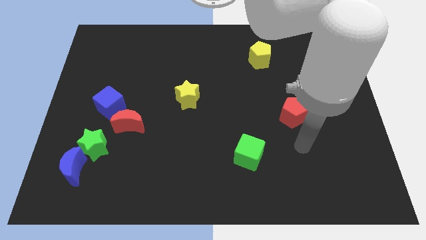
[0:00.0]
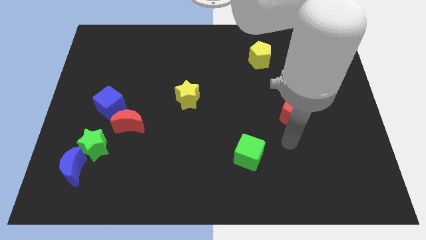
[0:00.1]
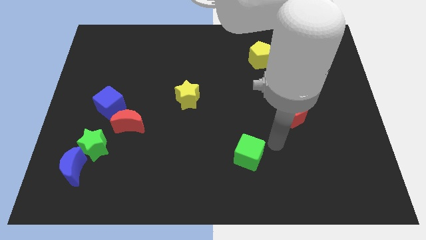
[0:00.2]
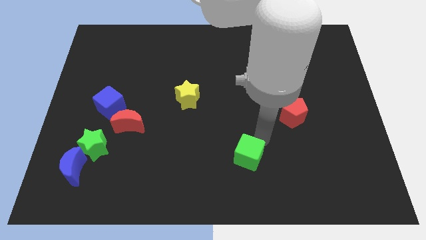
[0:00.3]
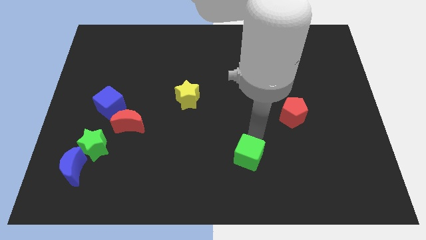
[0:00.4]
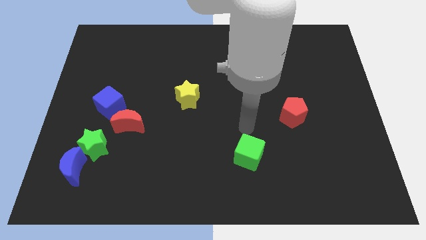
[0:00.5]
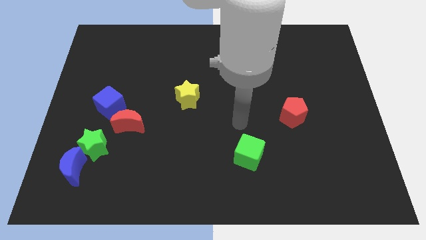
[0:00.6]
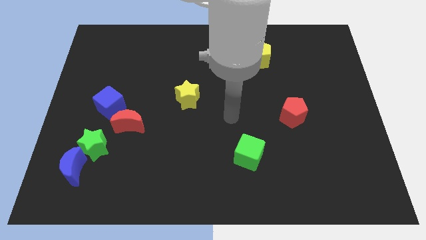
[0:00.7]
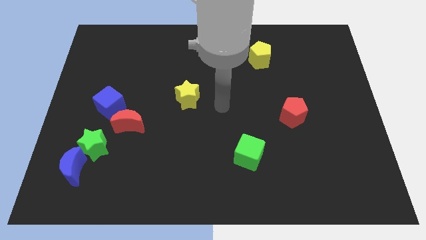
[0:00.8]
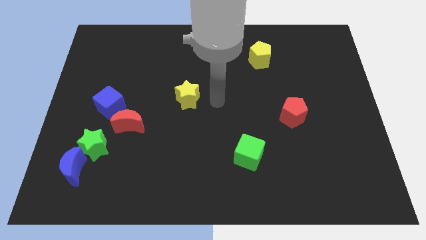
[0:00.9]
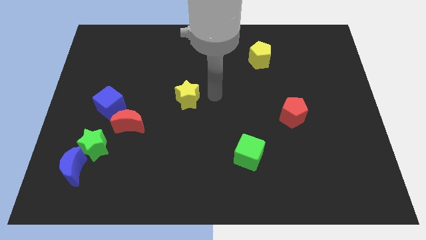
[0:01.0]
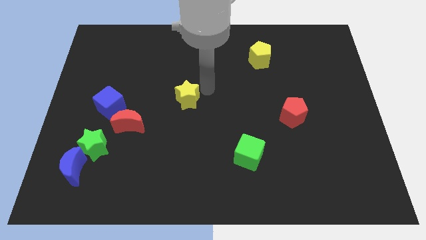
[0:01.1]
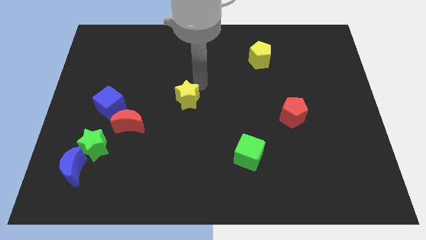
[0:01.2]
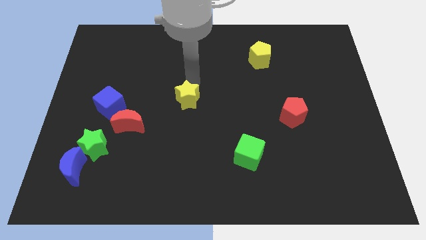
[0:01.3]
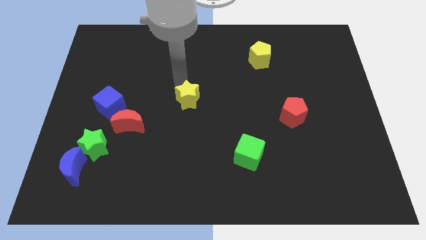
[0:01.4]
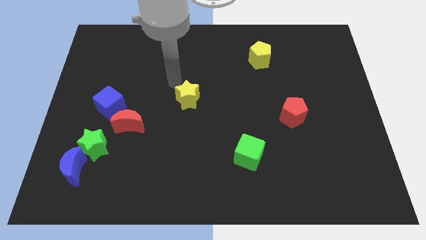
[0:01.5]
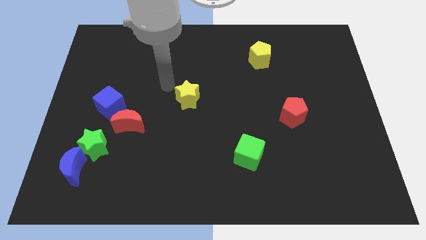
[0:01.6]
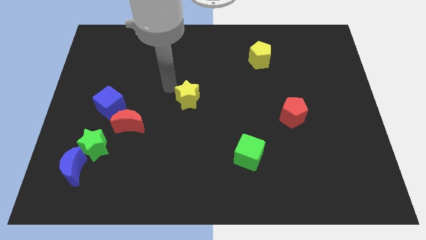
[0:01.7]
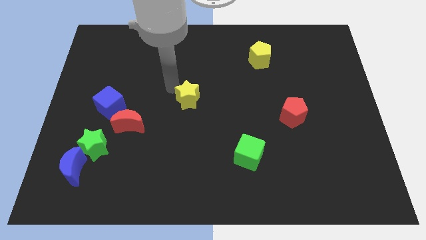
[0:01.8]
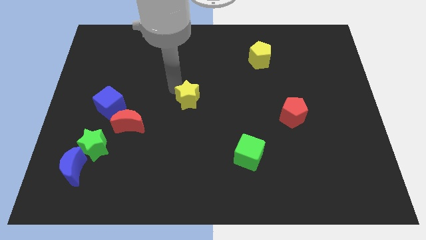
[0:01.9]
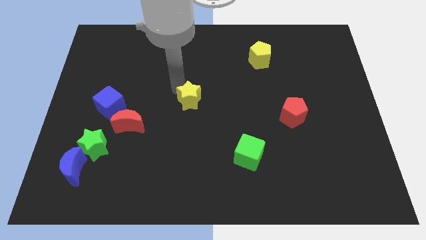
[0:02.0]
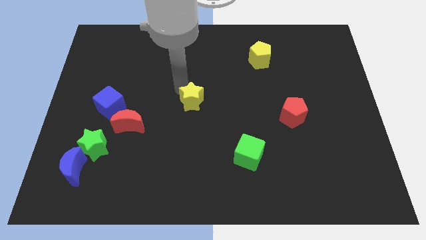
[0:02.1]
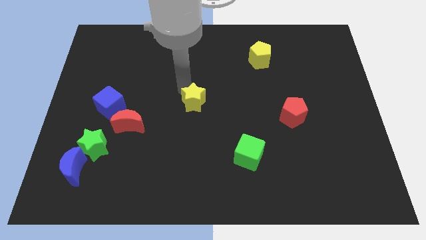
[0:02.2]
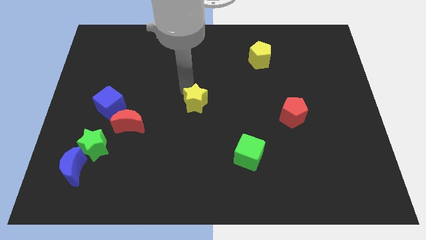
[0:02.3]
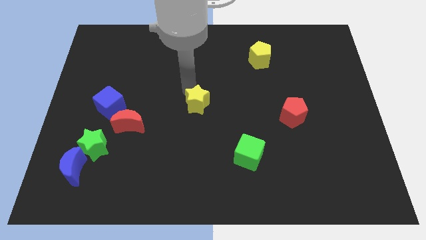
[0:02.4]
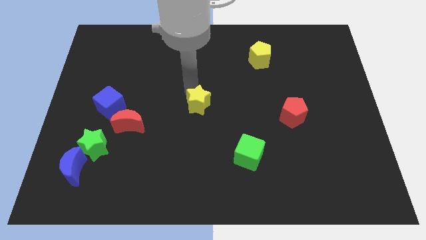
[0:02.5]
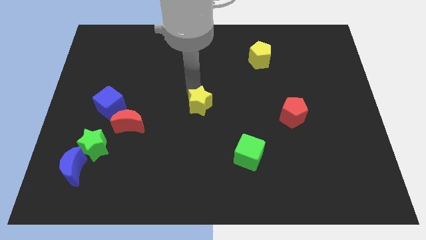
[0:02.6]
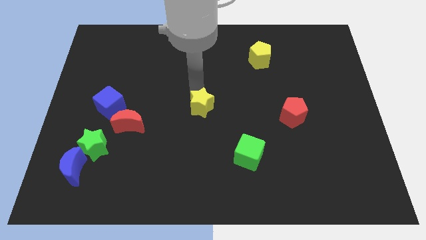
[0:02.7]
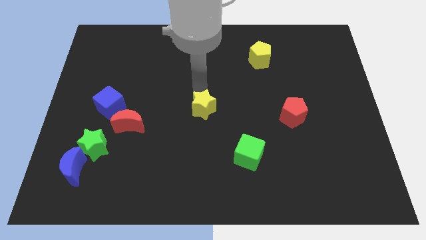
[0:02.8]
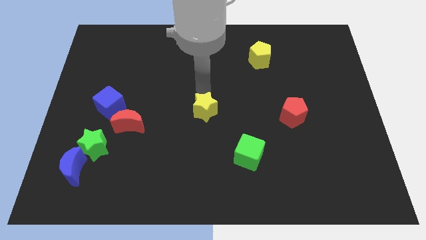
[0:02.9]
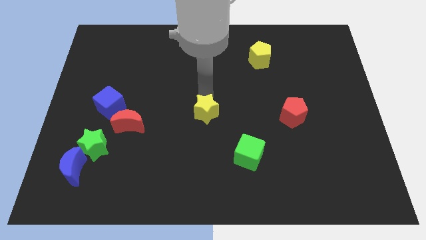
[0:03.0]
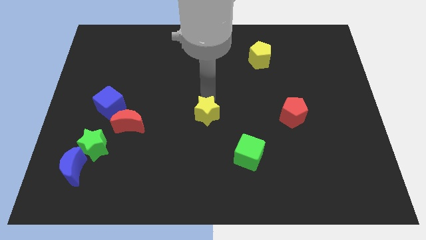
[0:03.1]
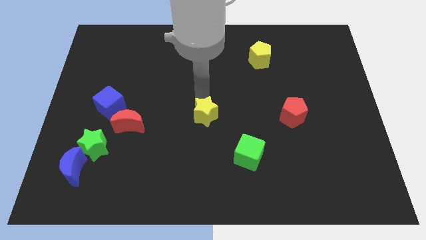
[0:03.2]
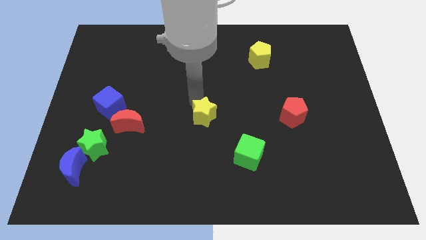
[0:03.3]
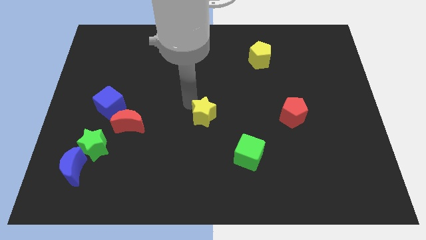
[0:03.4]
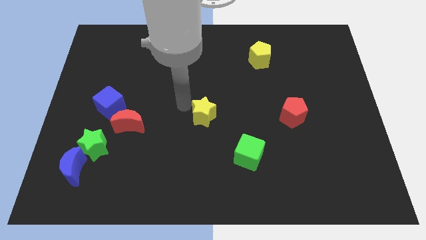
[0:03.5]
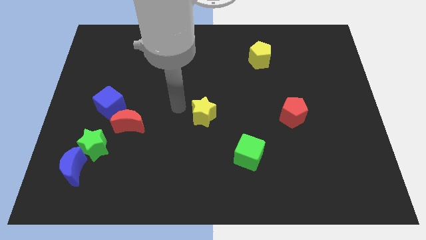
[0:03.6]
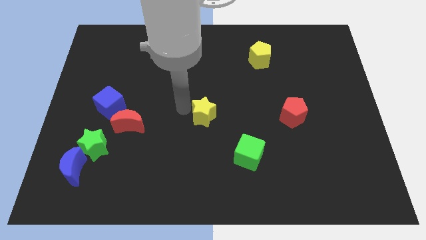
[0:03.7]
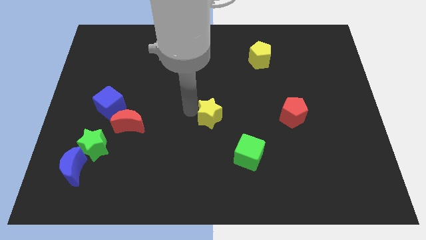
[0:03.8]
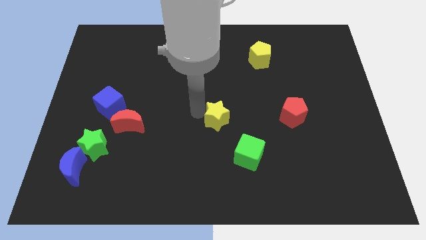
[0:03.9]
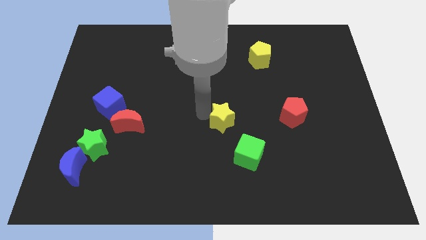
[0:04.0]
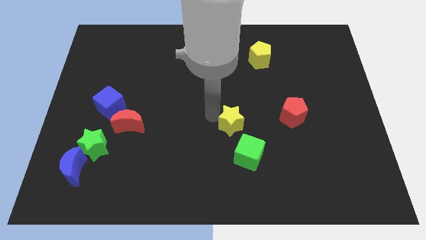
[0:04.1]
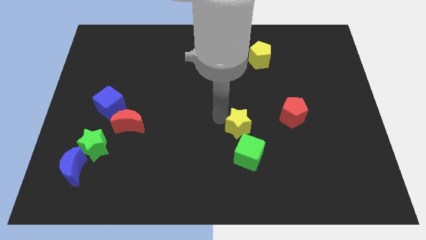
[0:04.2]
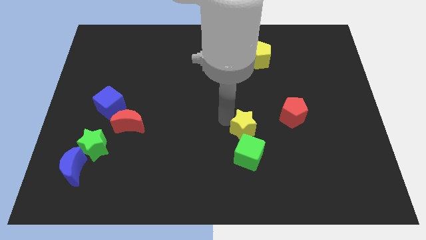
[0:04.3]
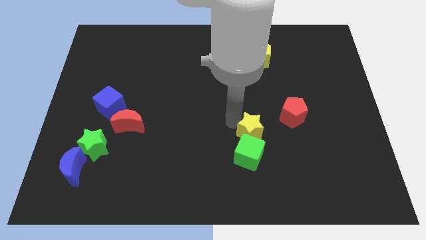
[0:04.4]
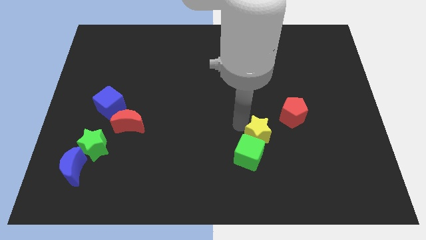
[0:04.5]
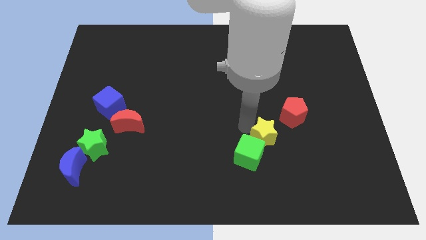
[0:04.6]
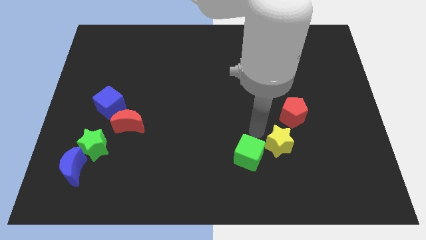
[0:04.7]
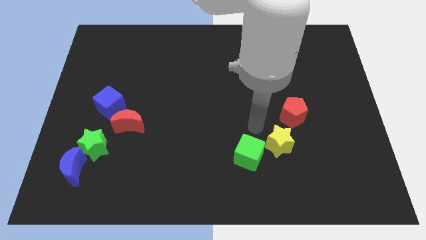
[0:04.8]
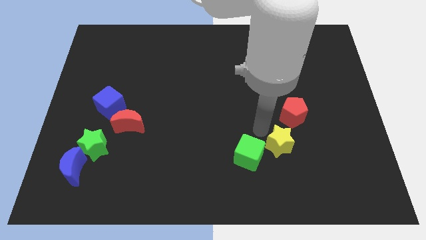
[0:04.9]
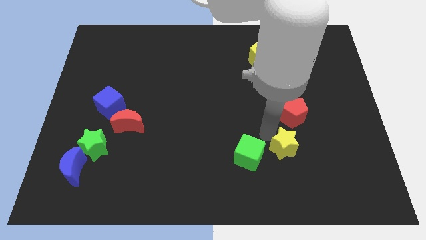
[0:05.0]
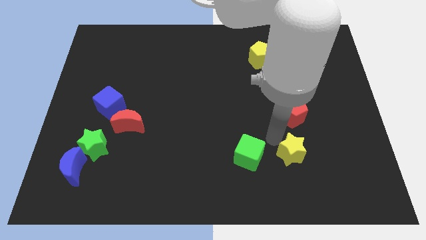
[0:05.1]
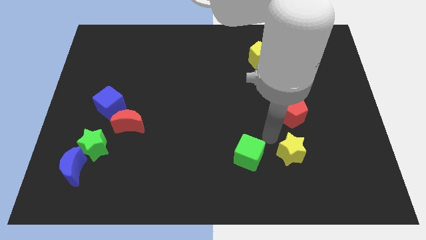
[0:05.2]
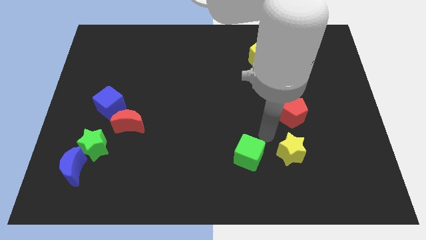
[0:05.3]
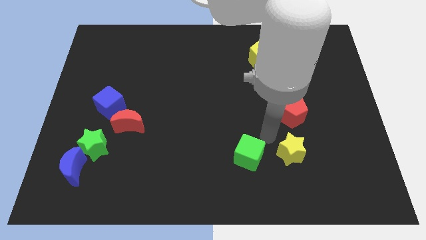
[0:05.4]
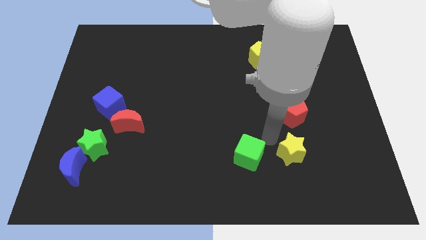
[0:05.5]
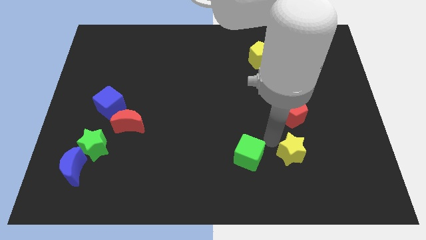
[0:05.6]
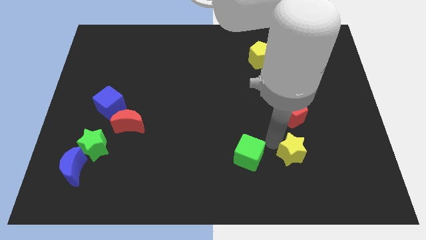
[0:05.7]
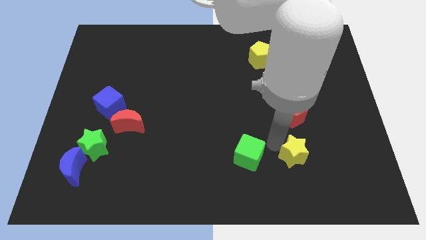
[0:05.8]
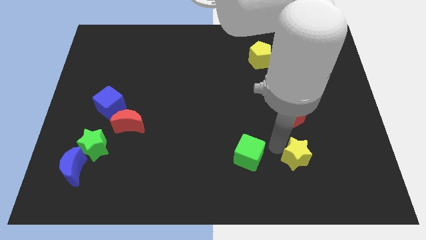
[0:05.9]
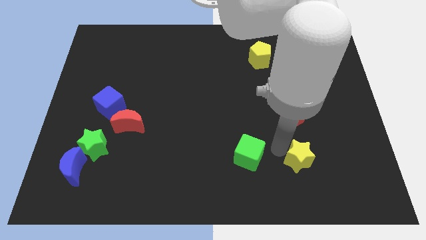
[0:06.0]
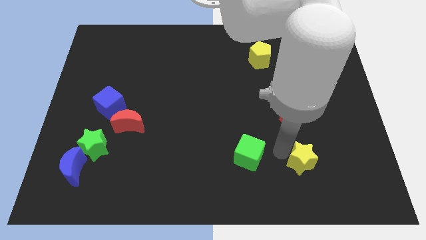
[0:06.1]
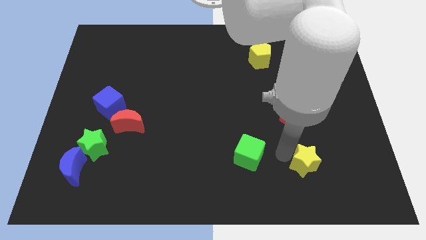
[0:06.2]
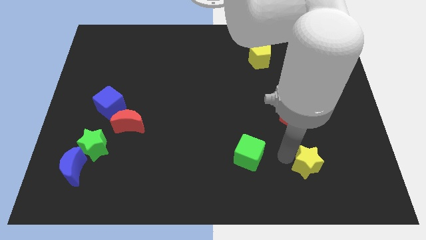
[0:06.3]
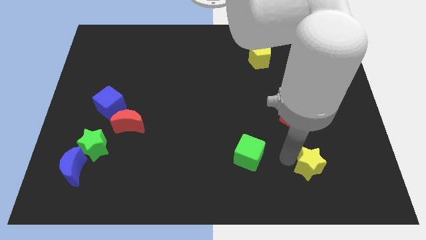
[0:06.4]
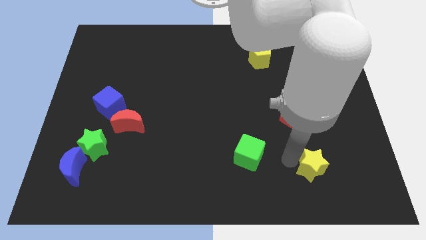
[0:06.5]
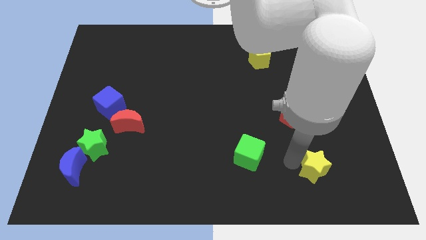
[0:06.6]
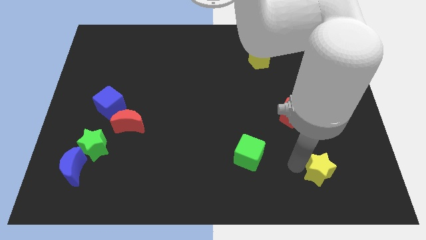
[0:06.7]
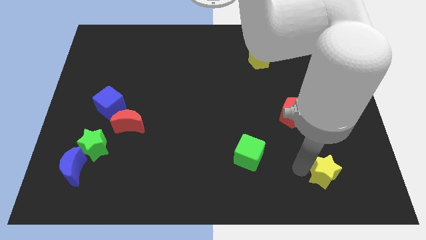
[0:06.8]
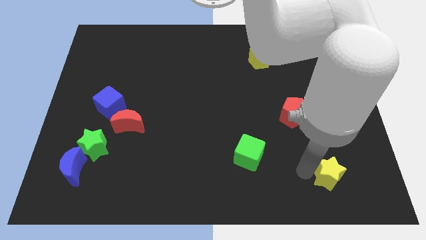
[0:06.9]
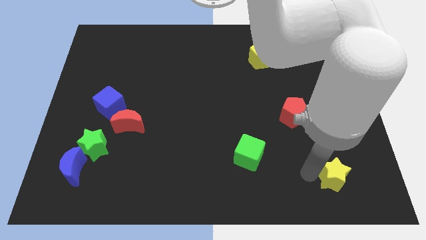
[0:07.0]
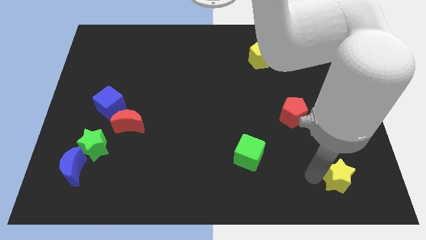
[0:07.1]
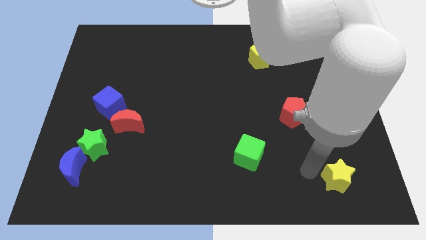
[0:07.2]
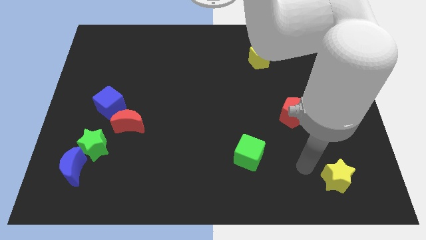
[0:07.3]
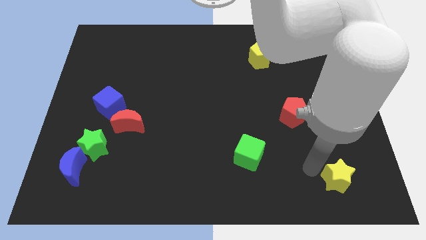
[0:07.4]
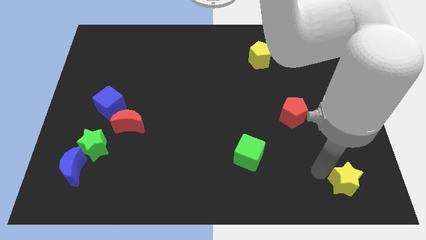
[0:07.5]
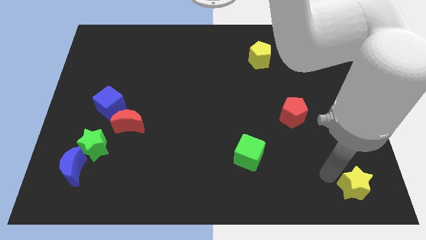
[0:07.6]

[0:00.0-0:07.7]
push the yellow star to the lower right corner
